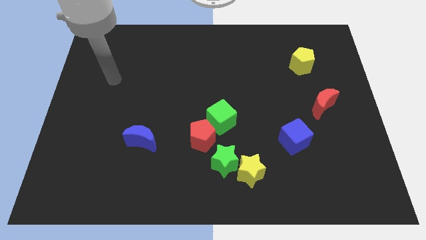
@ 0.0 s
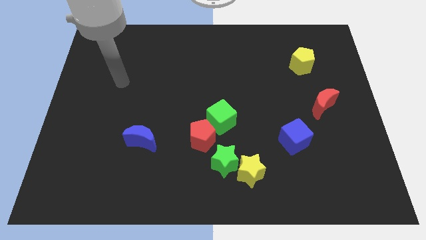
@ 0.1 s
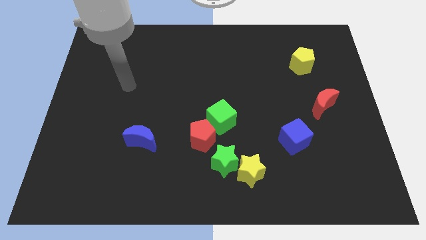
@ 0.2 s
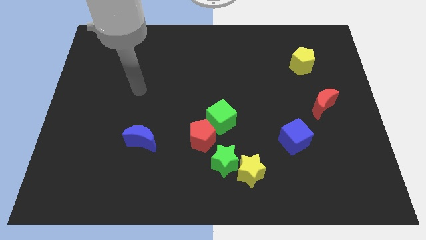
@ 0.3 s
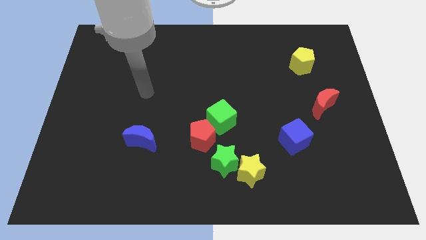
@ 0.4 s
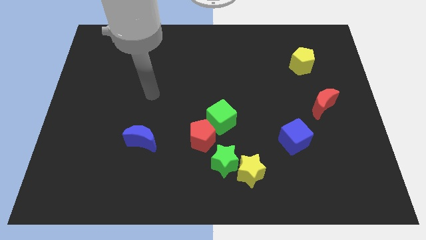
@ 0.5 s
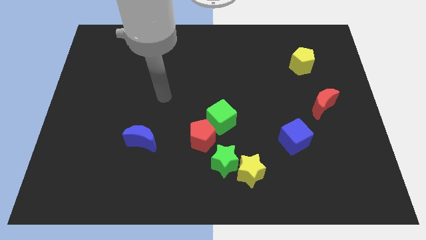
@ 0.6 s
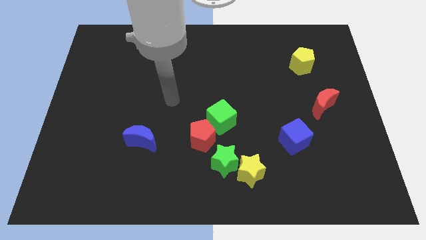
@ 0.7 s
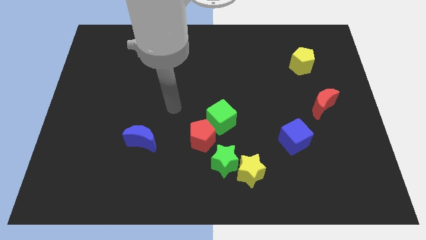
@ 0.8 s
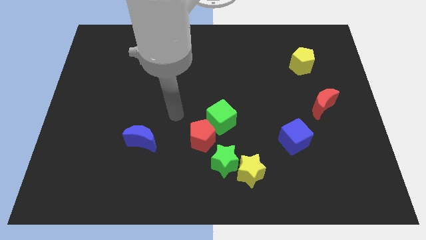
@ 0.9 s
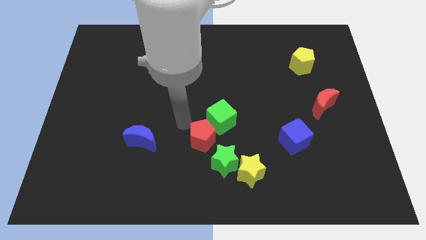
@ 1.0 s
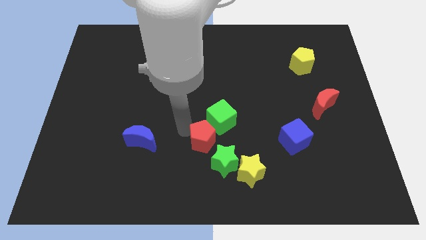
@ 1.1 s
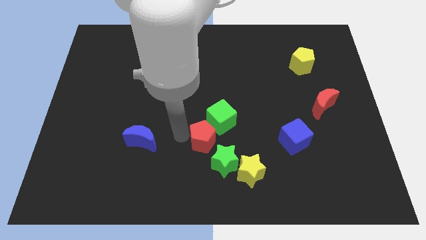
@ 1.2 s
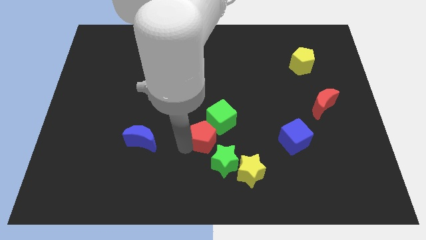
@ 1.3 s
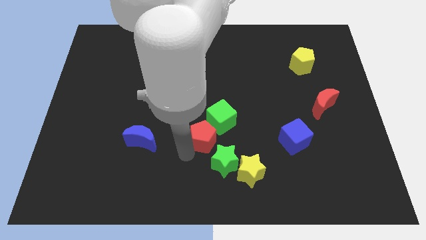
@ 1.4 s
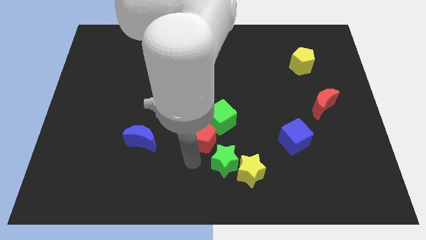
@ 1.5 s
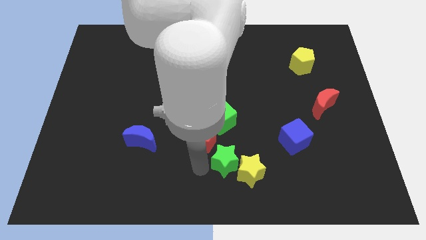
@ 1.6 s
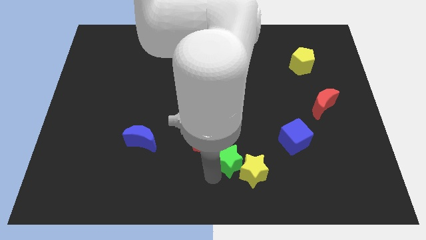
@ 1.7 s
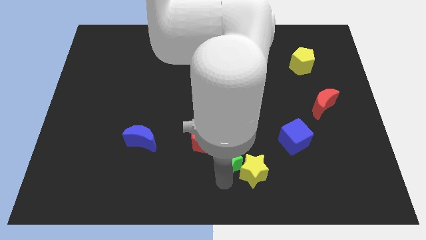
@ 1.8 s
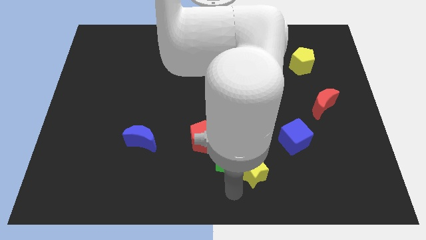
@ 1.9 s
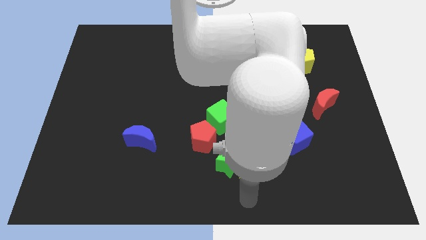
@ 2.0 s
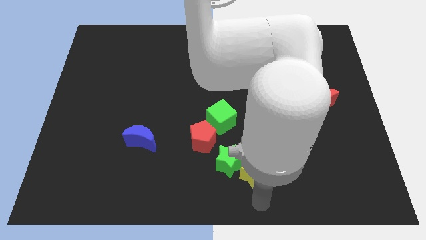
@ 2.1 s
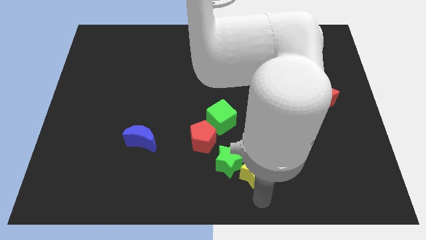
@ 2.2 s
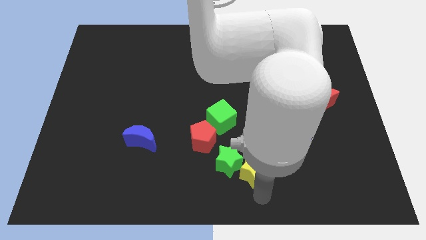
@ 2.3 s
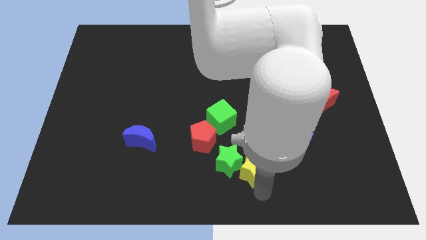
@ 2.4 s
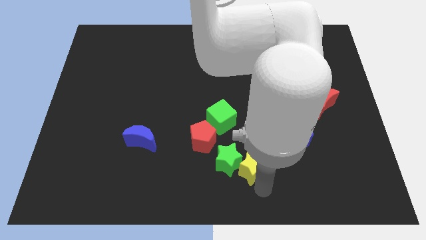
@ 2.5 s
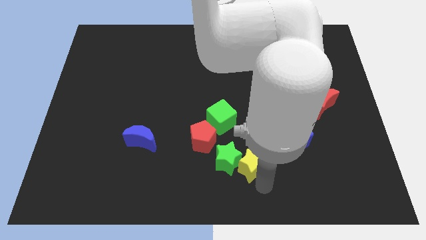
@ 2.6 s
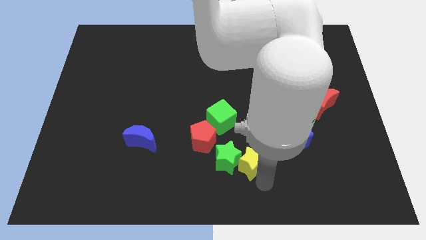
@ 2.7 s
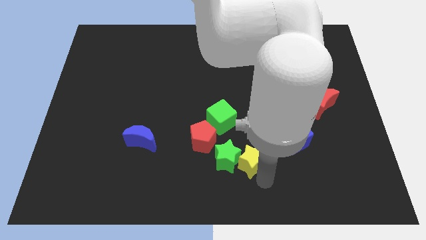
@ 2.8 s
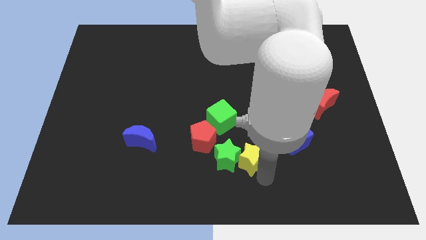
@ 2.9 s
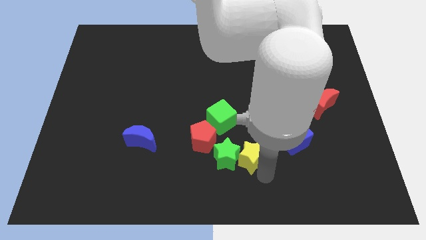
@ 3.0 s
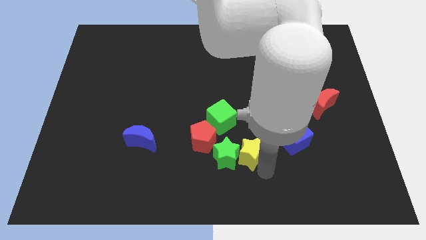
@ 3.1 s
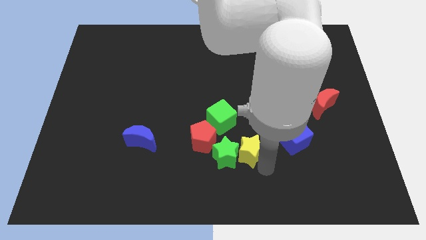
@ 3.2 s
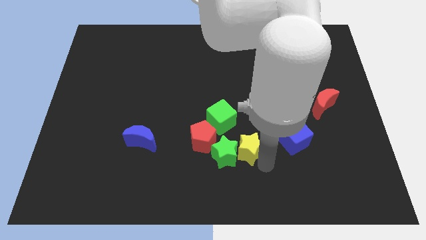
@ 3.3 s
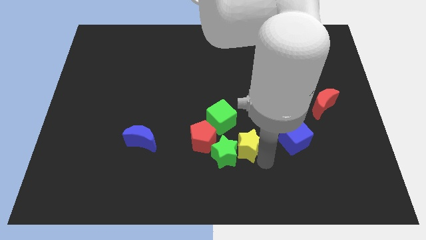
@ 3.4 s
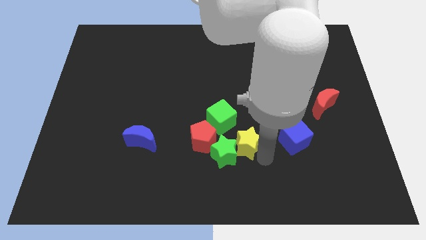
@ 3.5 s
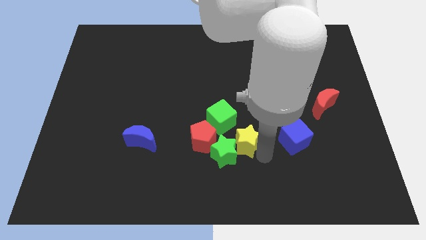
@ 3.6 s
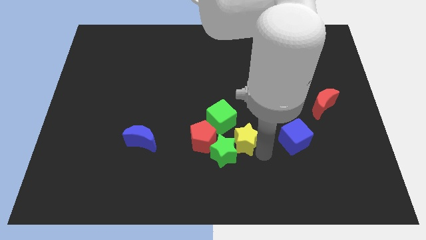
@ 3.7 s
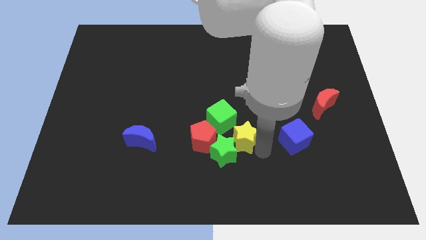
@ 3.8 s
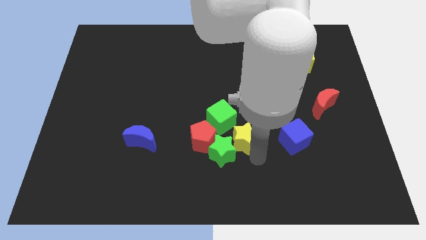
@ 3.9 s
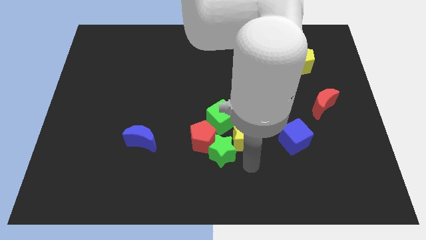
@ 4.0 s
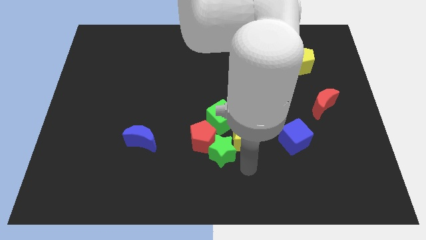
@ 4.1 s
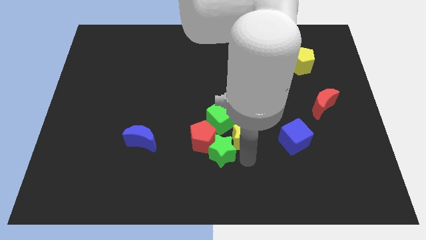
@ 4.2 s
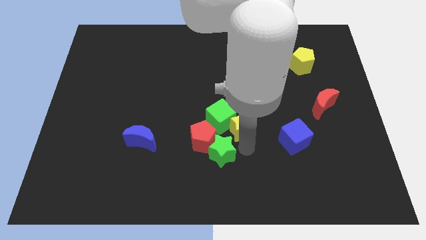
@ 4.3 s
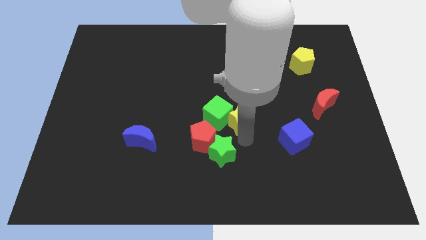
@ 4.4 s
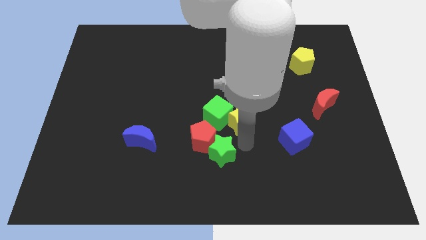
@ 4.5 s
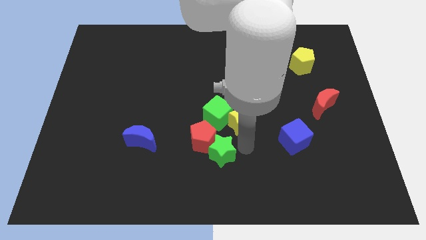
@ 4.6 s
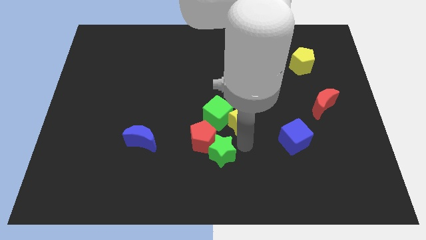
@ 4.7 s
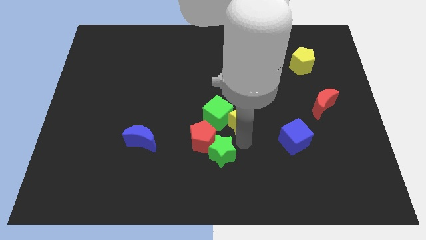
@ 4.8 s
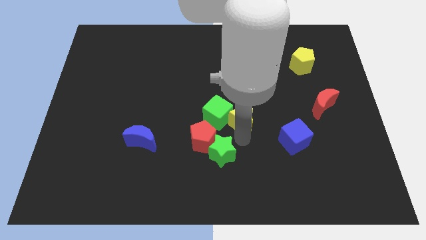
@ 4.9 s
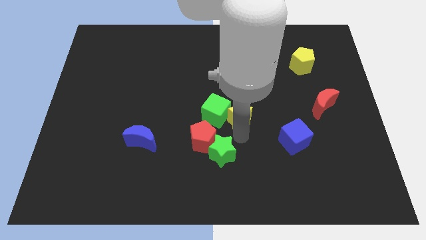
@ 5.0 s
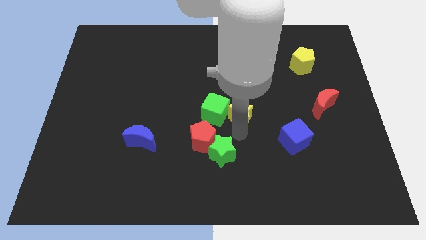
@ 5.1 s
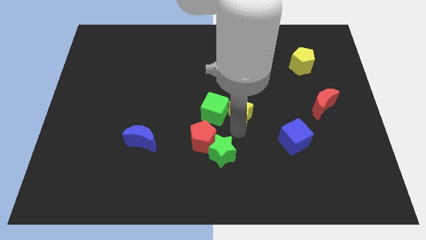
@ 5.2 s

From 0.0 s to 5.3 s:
push the yellow star diagonally up and to the right of the green cube

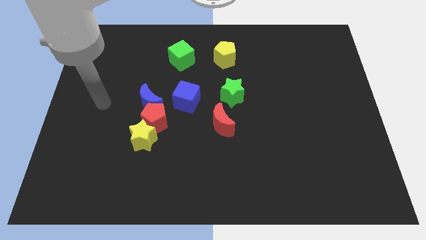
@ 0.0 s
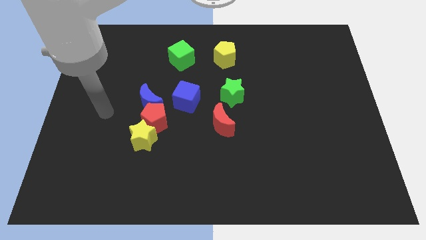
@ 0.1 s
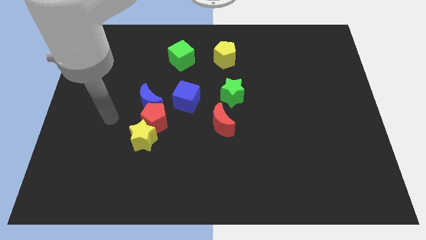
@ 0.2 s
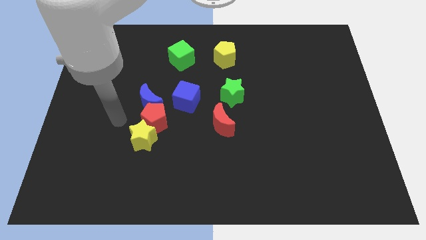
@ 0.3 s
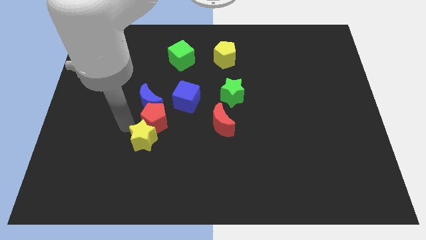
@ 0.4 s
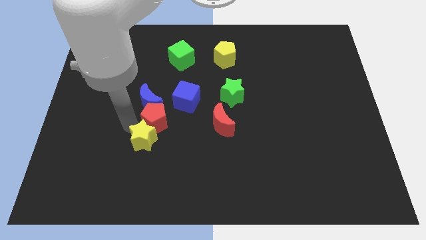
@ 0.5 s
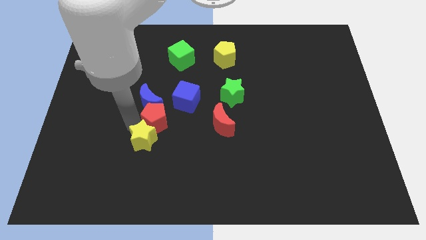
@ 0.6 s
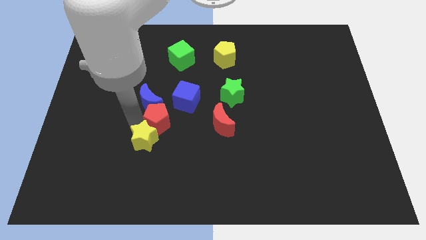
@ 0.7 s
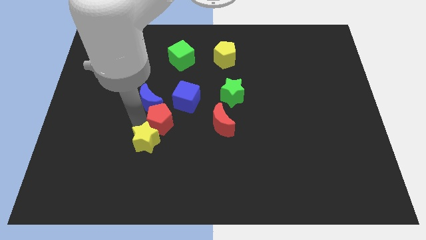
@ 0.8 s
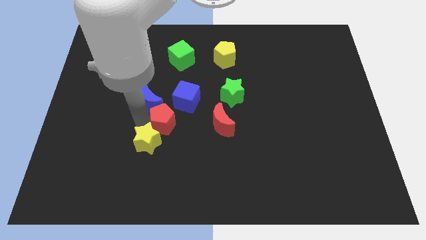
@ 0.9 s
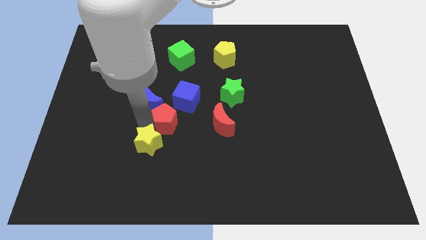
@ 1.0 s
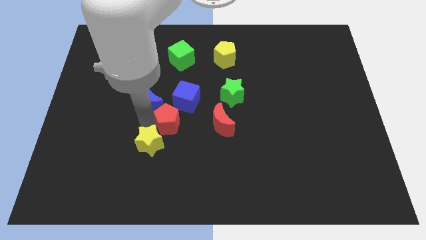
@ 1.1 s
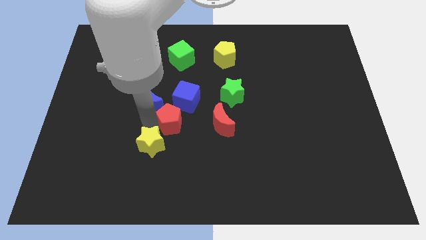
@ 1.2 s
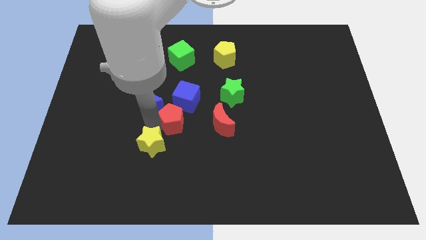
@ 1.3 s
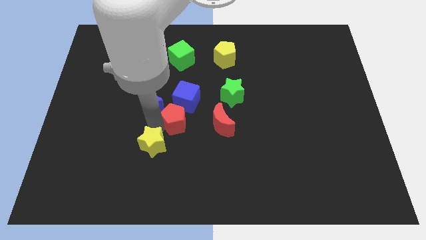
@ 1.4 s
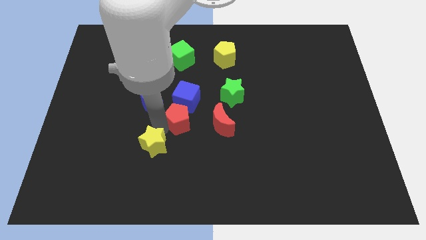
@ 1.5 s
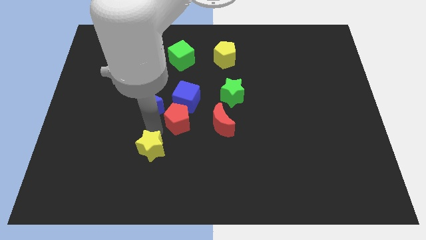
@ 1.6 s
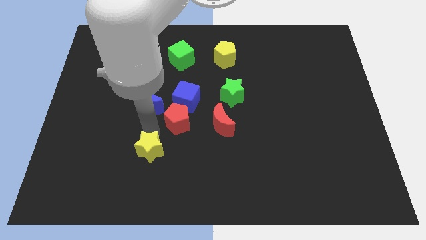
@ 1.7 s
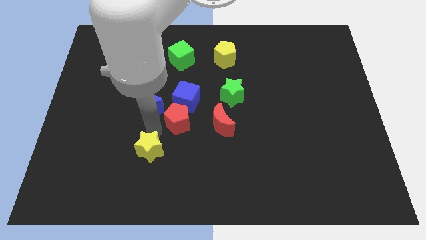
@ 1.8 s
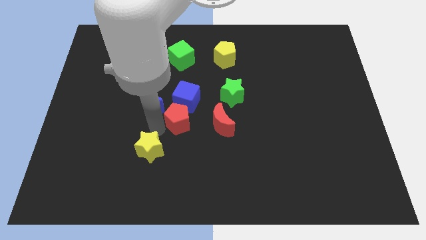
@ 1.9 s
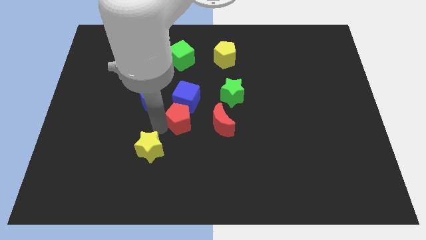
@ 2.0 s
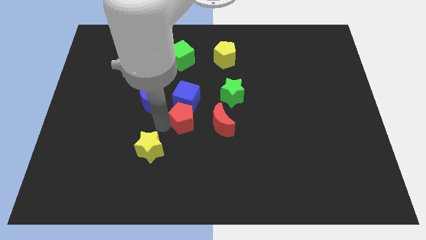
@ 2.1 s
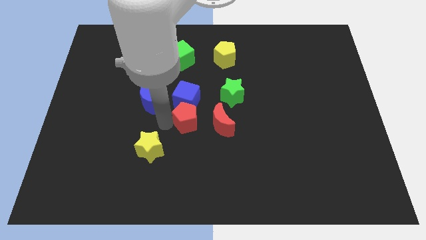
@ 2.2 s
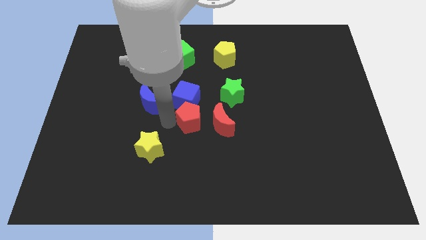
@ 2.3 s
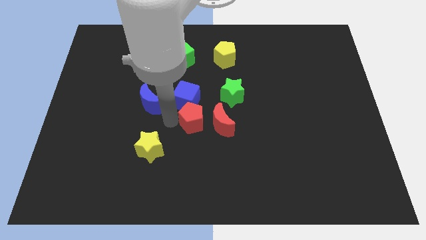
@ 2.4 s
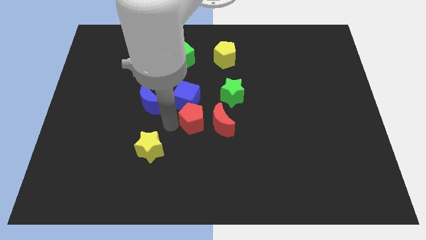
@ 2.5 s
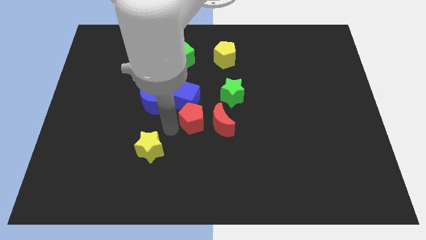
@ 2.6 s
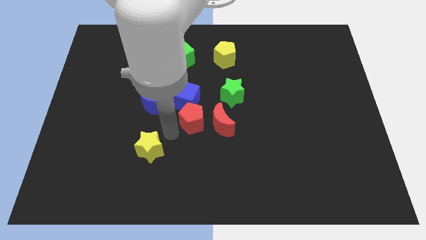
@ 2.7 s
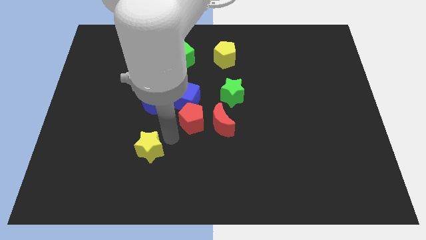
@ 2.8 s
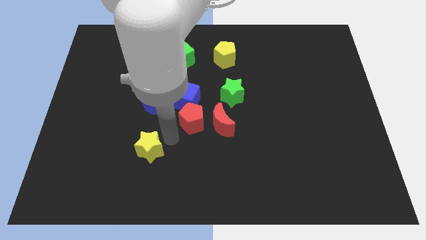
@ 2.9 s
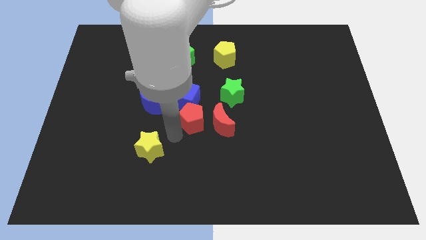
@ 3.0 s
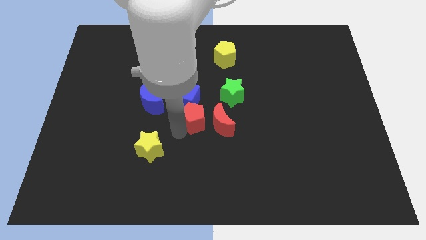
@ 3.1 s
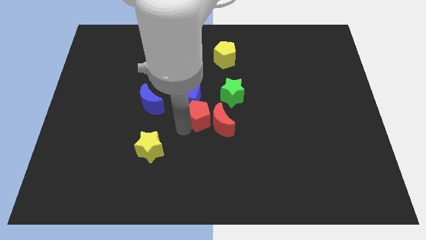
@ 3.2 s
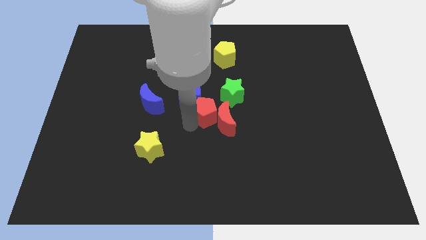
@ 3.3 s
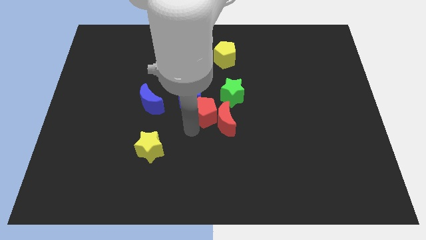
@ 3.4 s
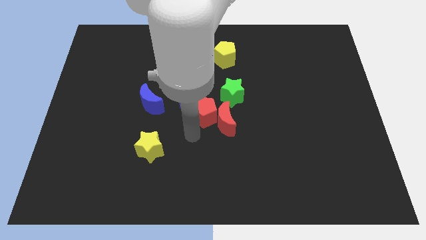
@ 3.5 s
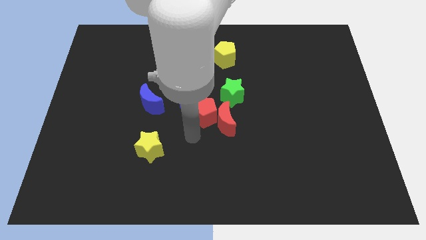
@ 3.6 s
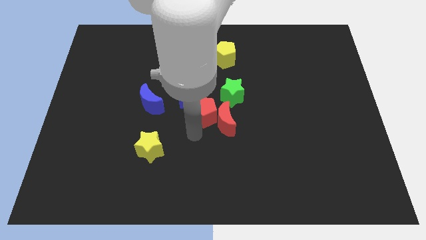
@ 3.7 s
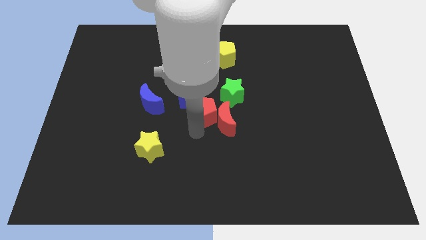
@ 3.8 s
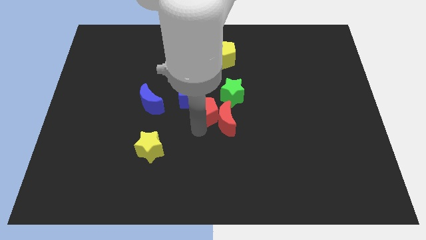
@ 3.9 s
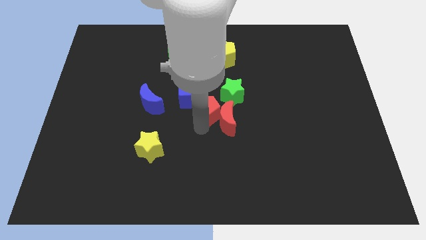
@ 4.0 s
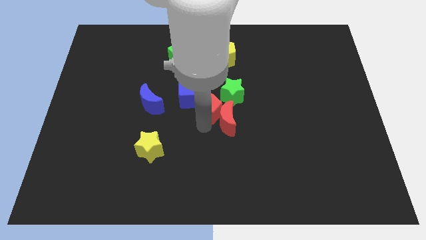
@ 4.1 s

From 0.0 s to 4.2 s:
put the red pentagon just right of the blue cube
